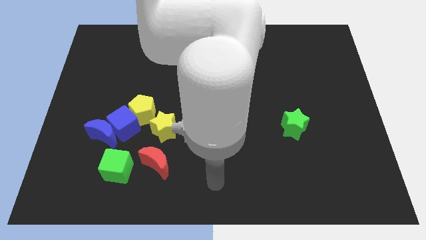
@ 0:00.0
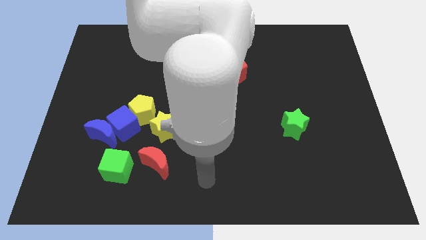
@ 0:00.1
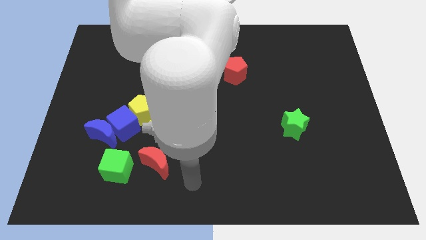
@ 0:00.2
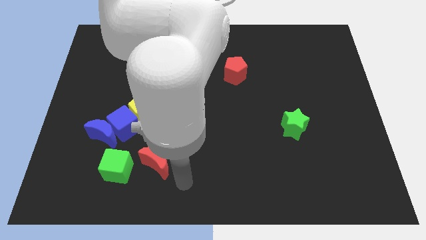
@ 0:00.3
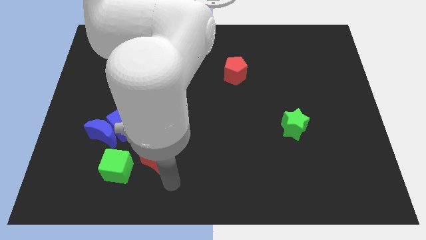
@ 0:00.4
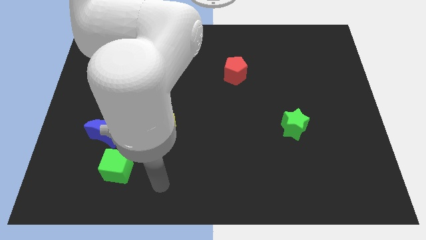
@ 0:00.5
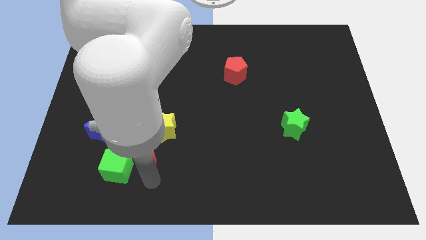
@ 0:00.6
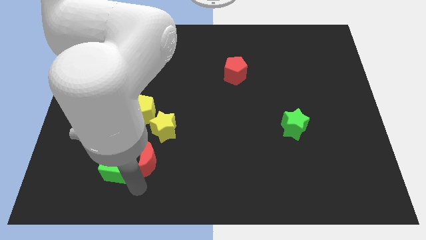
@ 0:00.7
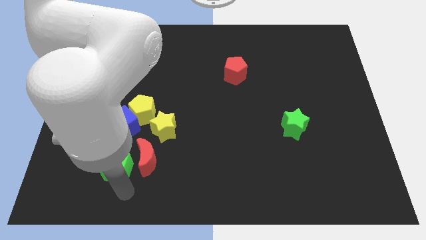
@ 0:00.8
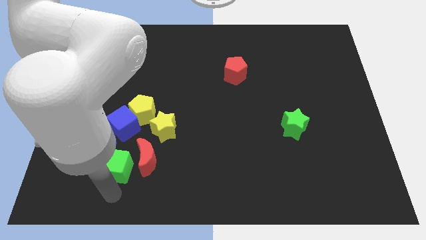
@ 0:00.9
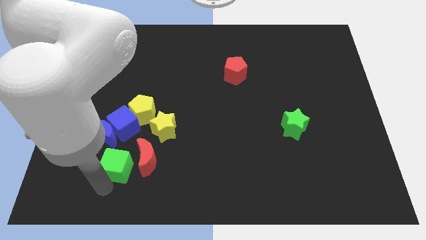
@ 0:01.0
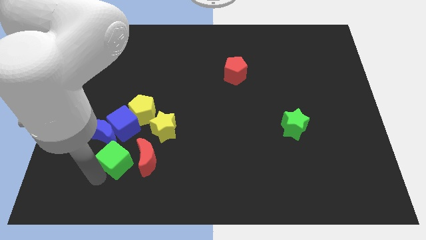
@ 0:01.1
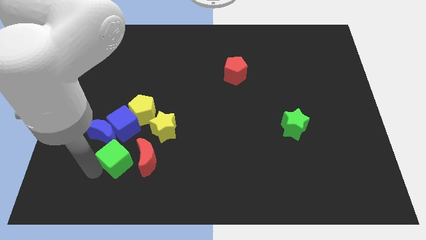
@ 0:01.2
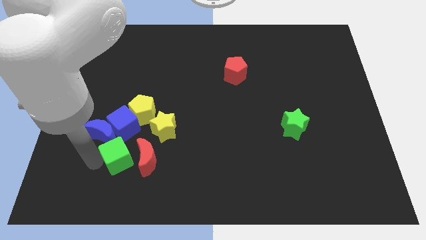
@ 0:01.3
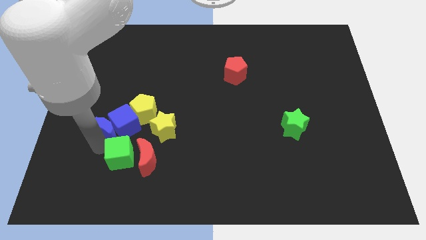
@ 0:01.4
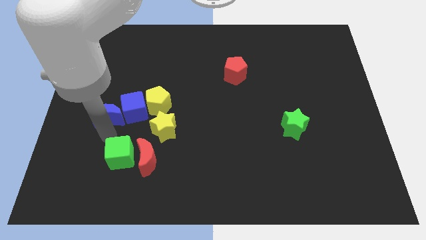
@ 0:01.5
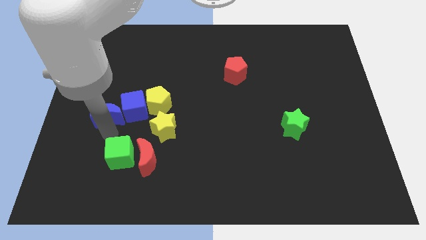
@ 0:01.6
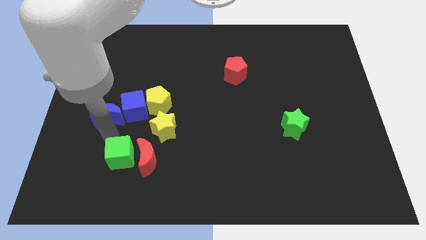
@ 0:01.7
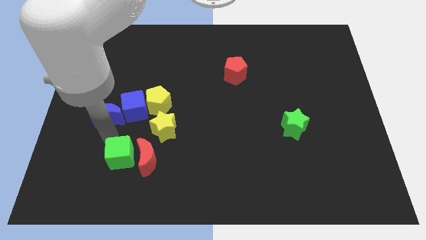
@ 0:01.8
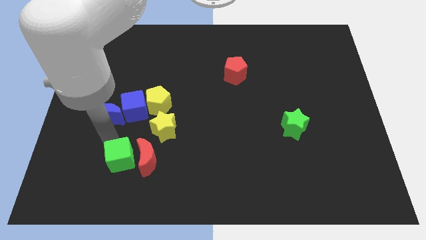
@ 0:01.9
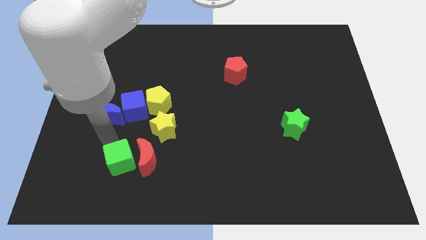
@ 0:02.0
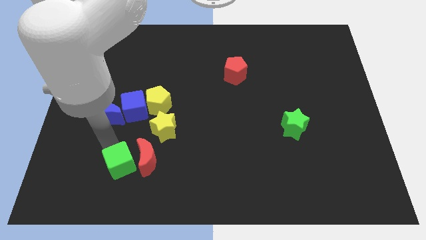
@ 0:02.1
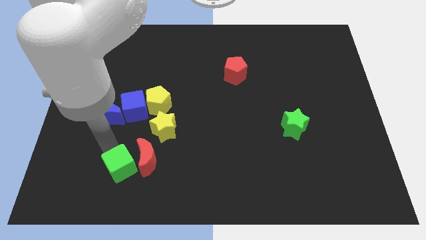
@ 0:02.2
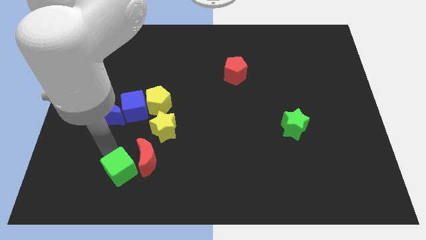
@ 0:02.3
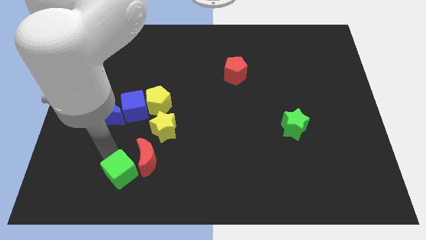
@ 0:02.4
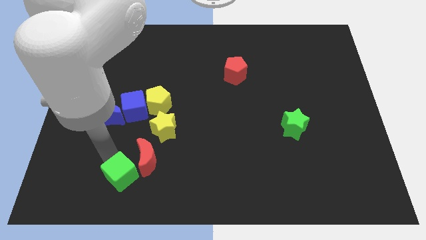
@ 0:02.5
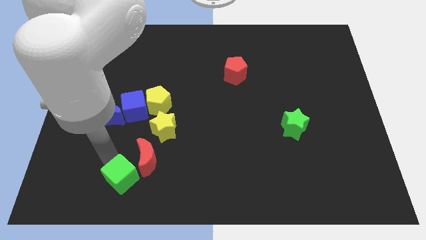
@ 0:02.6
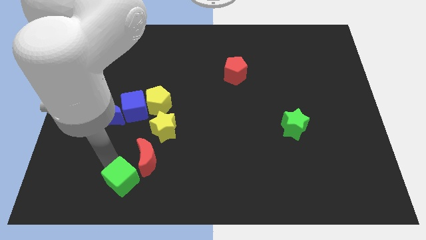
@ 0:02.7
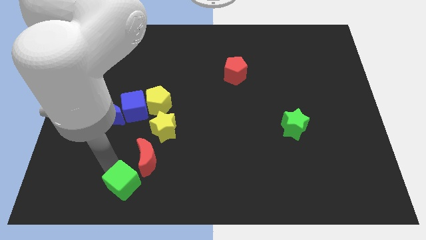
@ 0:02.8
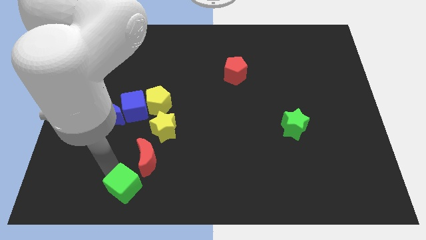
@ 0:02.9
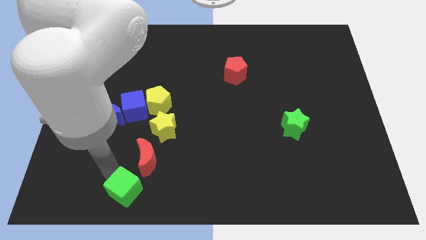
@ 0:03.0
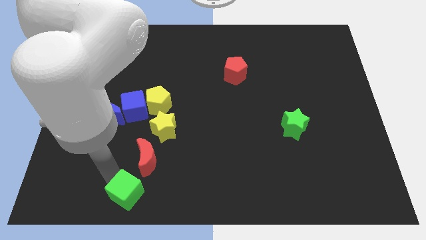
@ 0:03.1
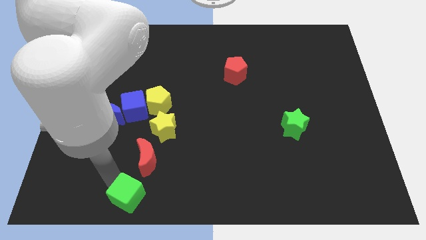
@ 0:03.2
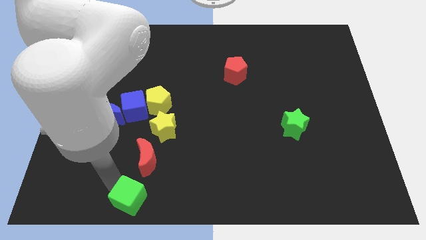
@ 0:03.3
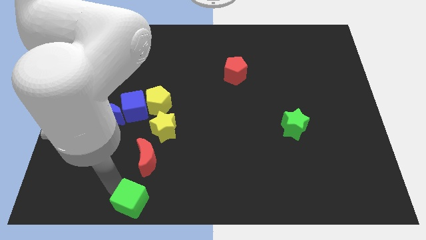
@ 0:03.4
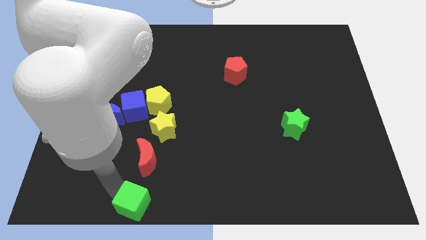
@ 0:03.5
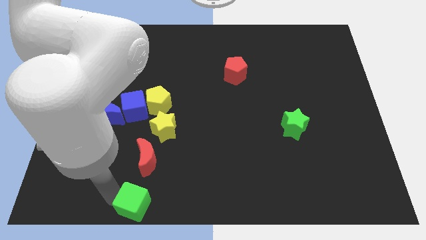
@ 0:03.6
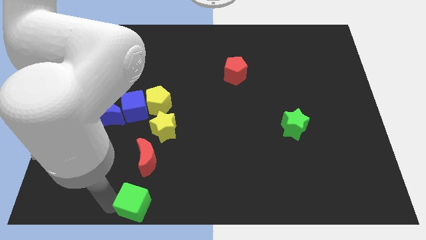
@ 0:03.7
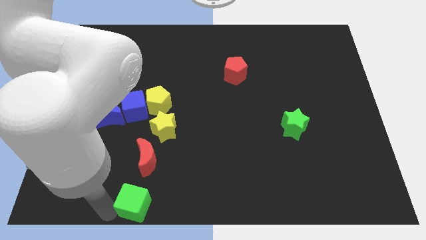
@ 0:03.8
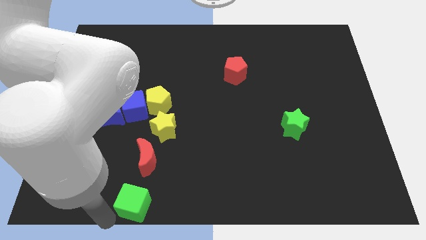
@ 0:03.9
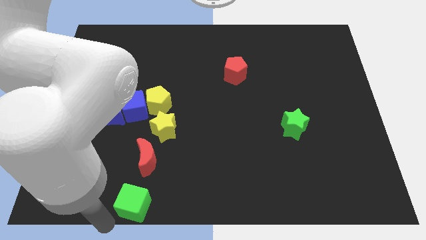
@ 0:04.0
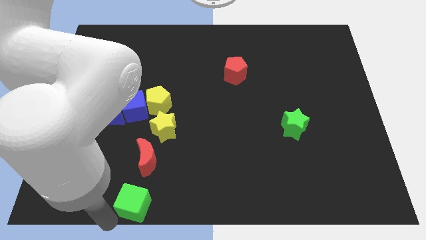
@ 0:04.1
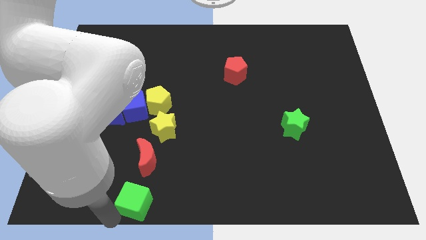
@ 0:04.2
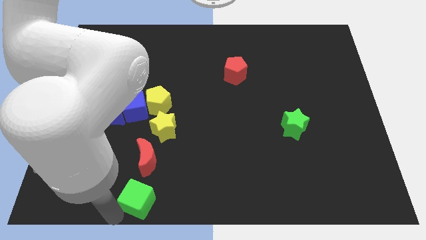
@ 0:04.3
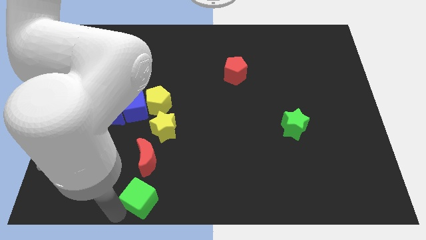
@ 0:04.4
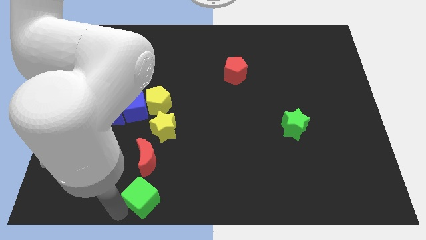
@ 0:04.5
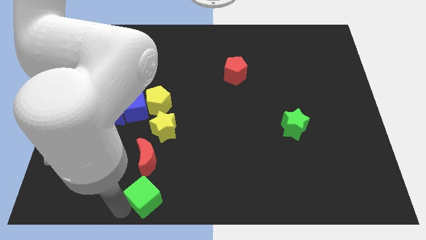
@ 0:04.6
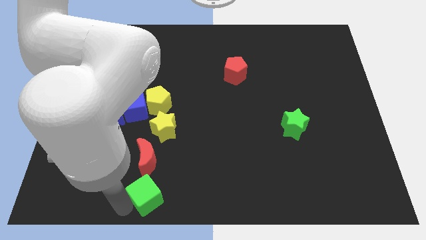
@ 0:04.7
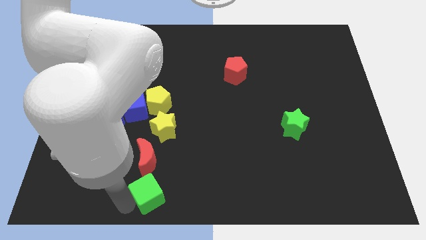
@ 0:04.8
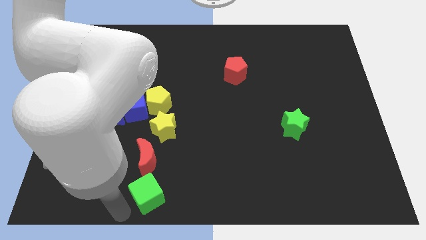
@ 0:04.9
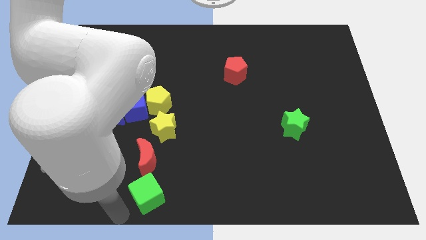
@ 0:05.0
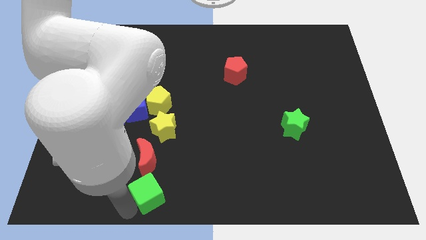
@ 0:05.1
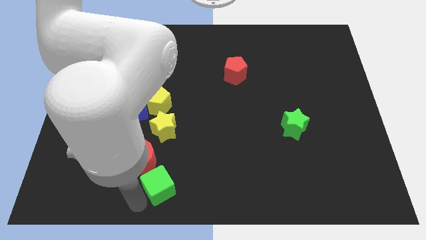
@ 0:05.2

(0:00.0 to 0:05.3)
slide the green cube somewhat right

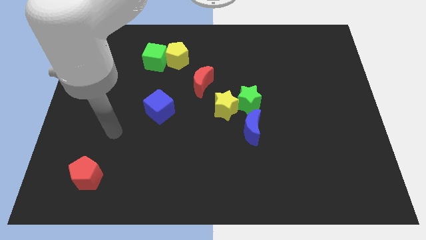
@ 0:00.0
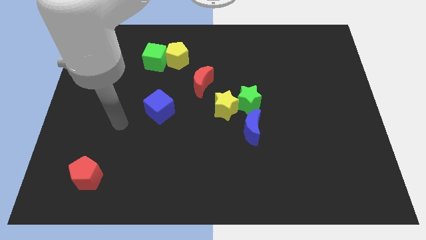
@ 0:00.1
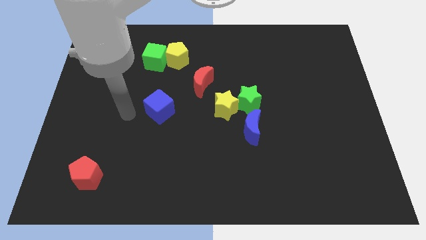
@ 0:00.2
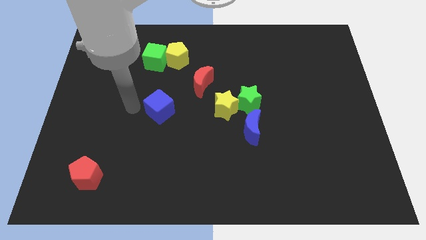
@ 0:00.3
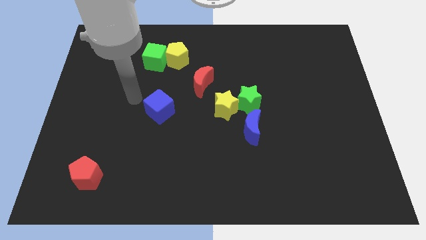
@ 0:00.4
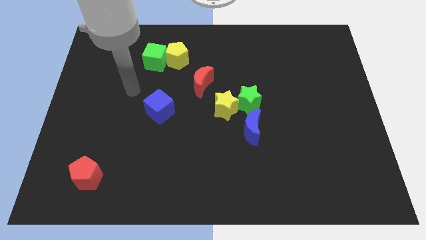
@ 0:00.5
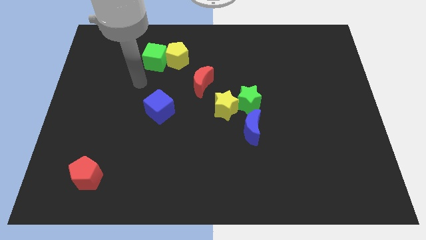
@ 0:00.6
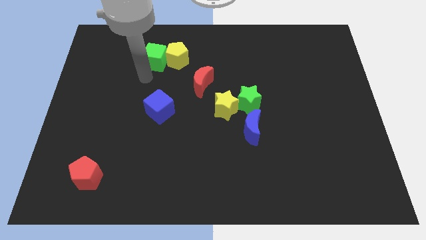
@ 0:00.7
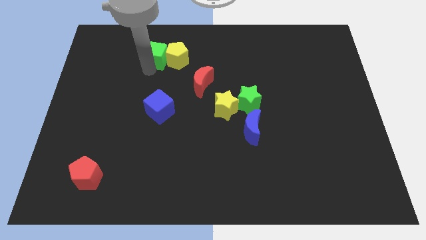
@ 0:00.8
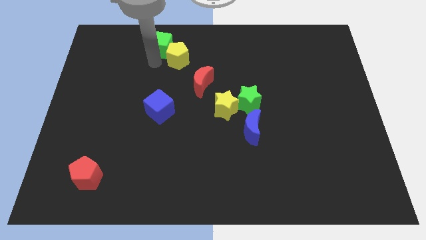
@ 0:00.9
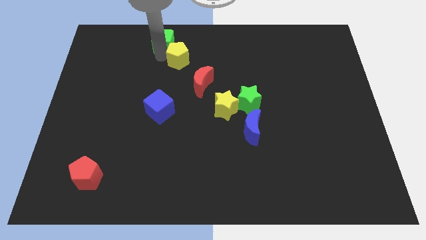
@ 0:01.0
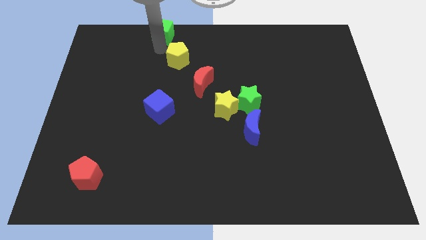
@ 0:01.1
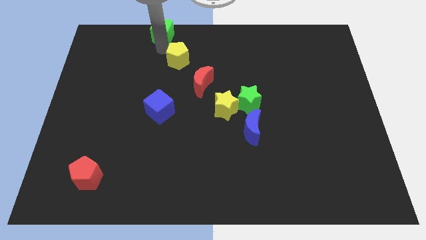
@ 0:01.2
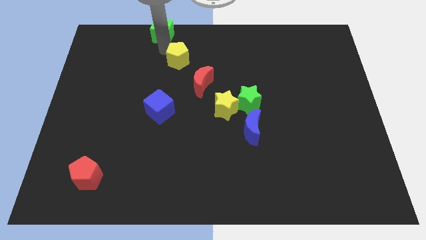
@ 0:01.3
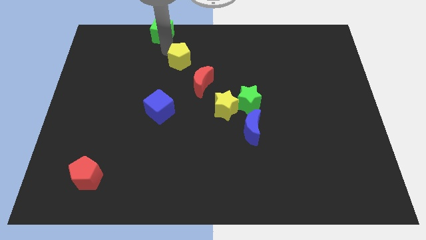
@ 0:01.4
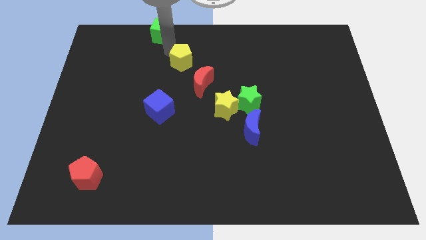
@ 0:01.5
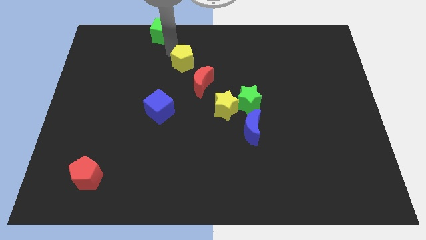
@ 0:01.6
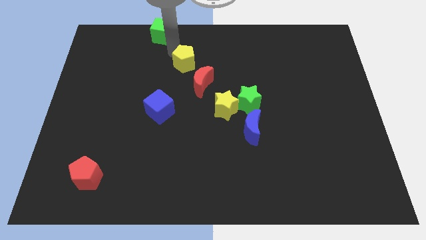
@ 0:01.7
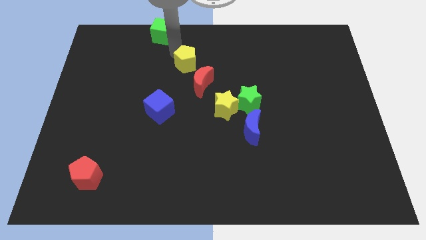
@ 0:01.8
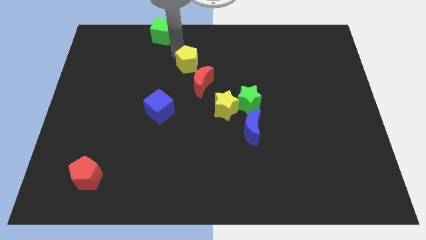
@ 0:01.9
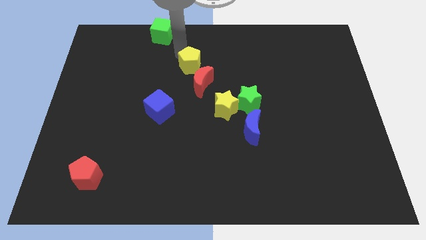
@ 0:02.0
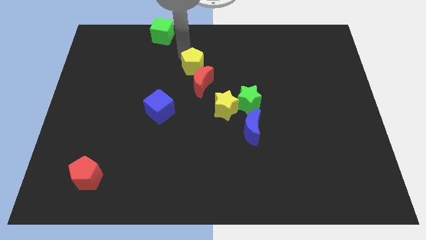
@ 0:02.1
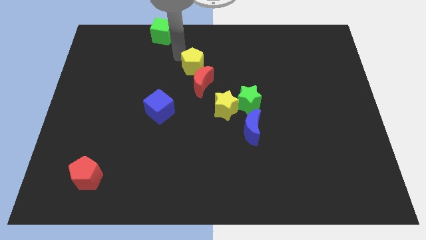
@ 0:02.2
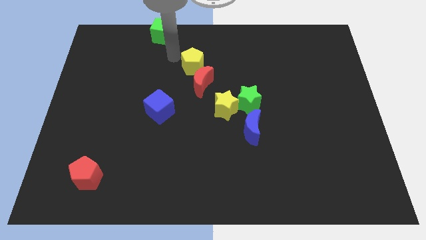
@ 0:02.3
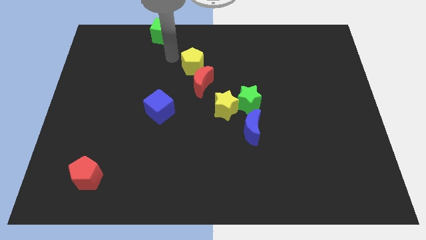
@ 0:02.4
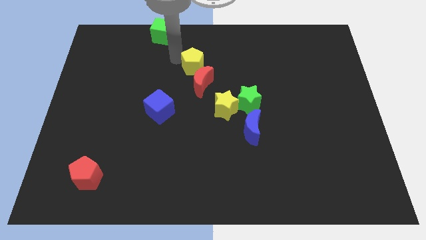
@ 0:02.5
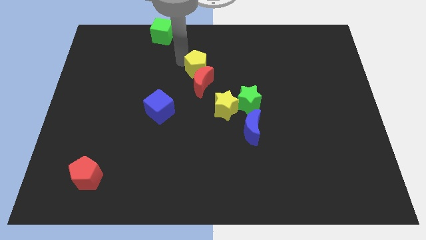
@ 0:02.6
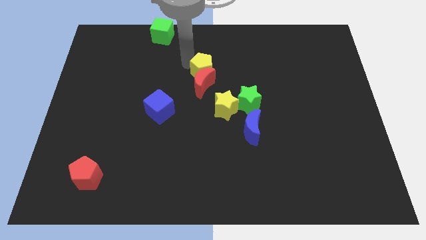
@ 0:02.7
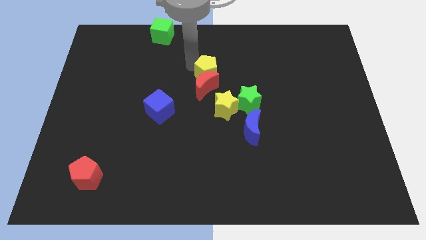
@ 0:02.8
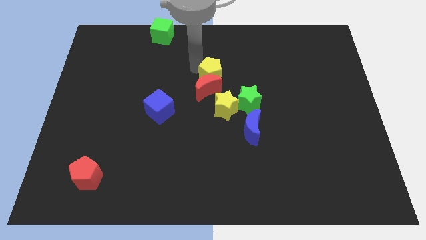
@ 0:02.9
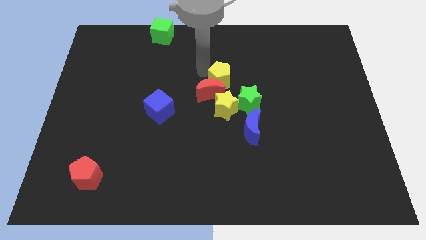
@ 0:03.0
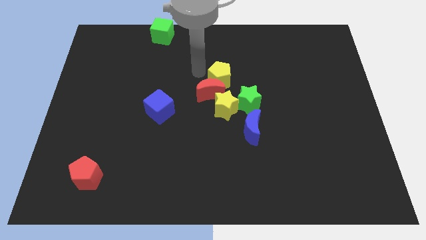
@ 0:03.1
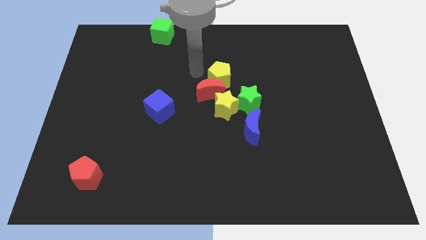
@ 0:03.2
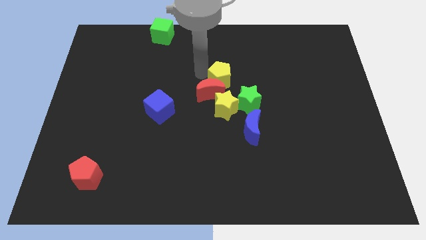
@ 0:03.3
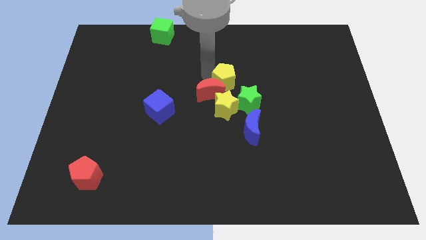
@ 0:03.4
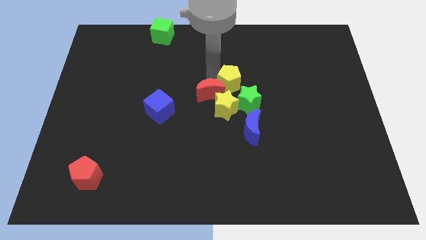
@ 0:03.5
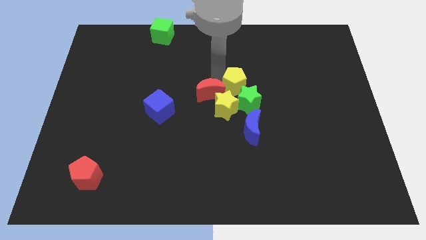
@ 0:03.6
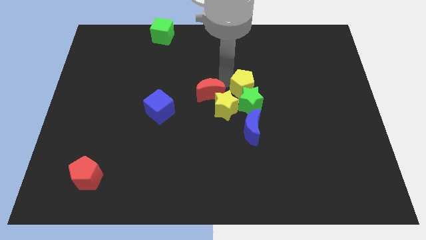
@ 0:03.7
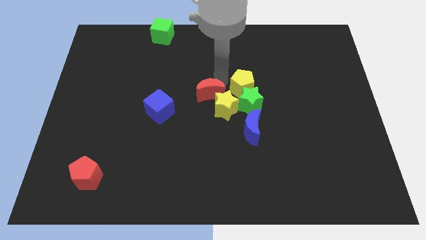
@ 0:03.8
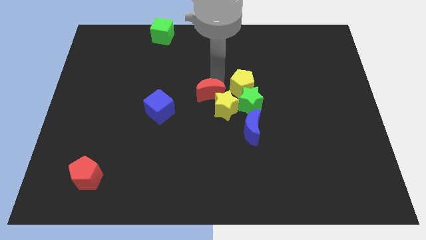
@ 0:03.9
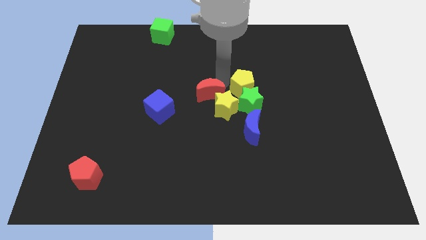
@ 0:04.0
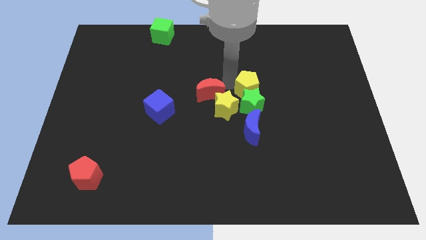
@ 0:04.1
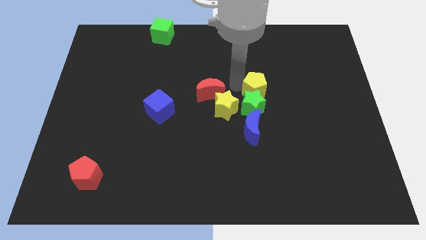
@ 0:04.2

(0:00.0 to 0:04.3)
push the yellow pentagon downwards and right diagonally
